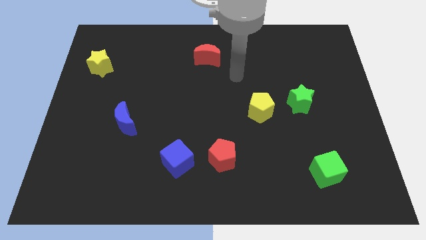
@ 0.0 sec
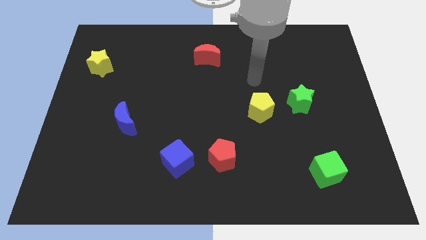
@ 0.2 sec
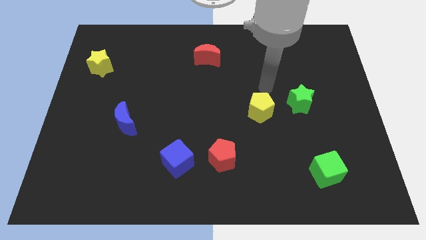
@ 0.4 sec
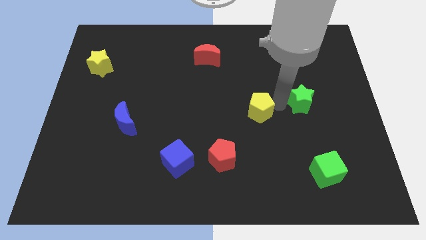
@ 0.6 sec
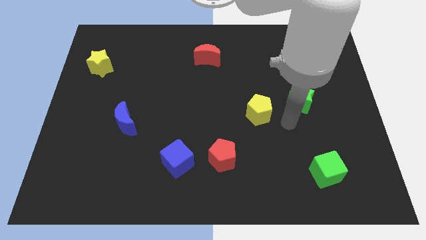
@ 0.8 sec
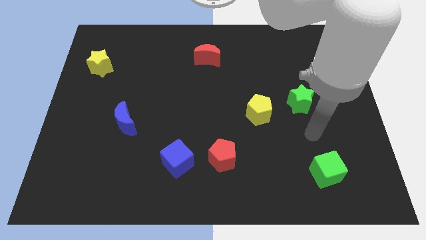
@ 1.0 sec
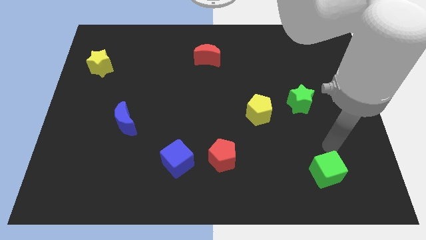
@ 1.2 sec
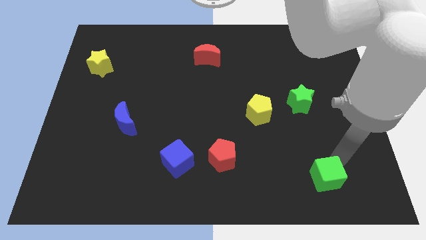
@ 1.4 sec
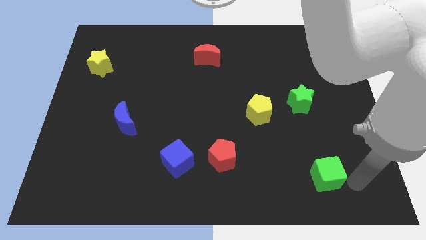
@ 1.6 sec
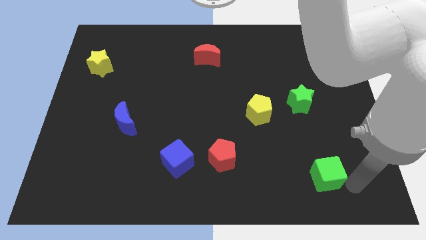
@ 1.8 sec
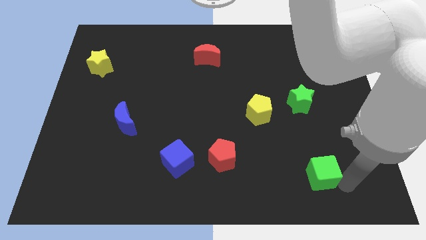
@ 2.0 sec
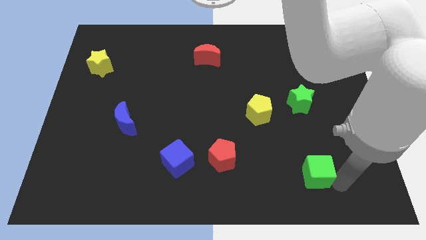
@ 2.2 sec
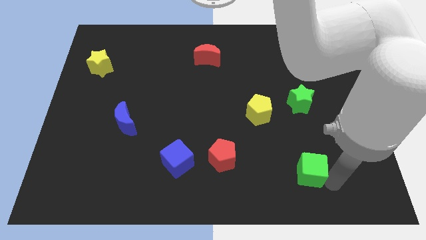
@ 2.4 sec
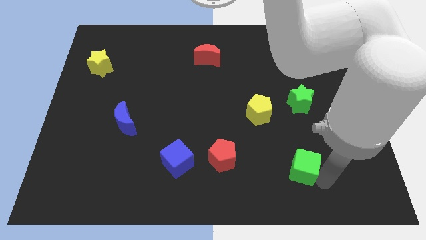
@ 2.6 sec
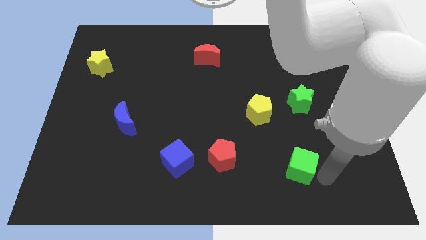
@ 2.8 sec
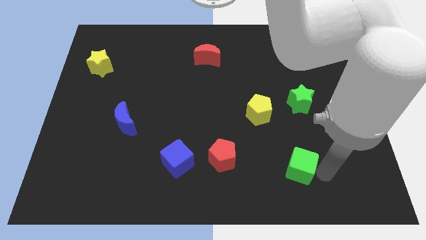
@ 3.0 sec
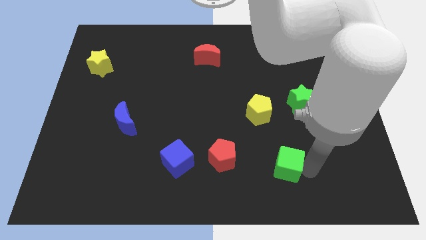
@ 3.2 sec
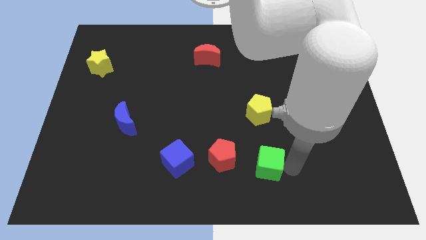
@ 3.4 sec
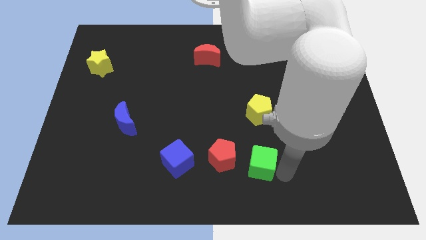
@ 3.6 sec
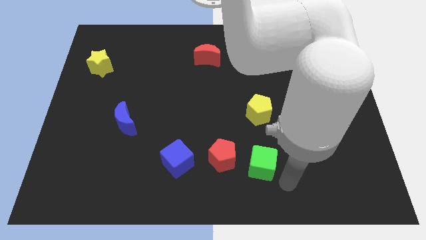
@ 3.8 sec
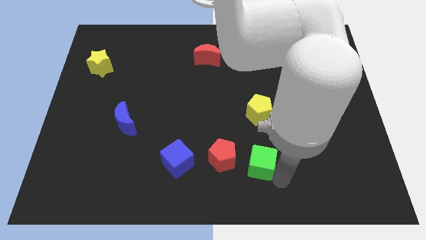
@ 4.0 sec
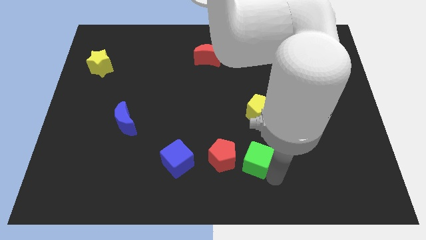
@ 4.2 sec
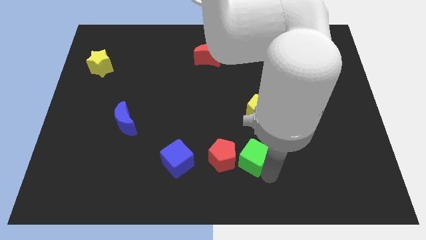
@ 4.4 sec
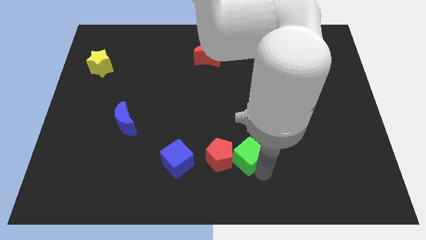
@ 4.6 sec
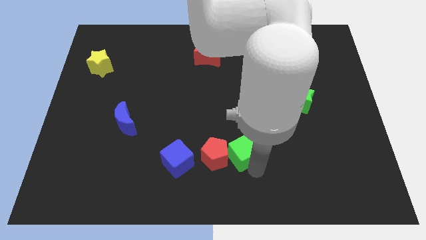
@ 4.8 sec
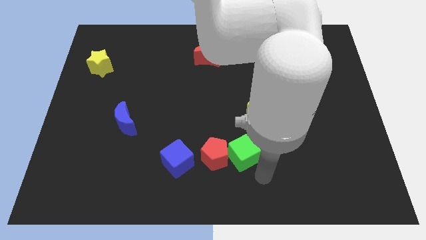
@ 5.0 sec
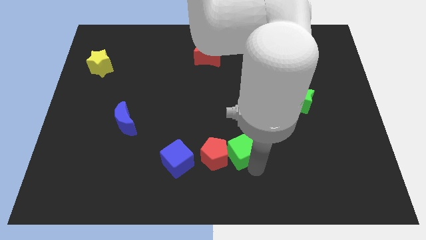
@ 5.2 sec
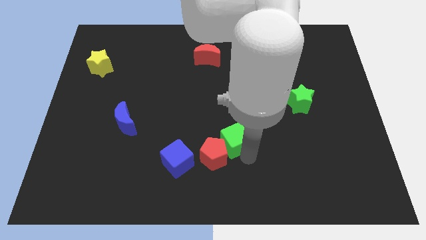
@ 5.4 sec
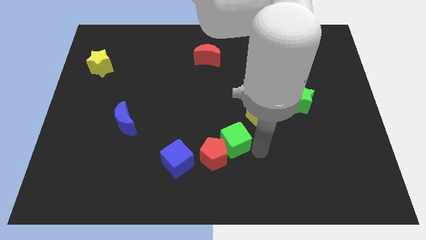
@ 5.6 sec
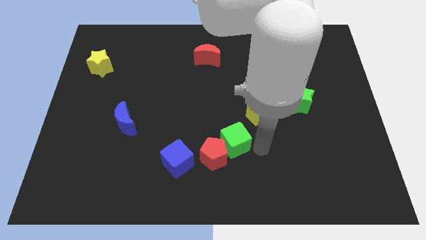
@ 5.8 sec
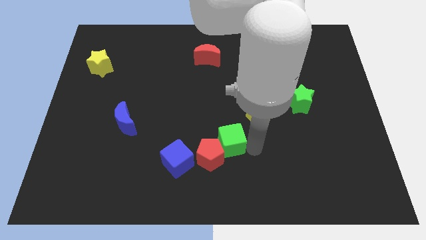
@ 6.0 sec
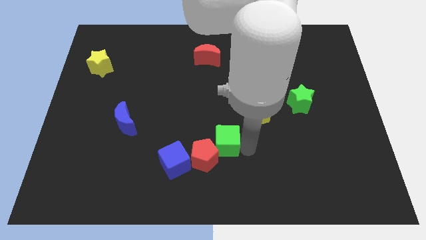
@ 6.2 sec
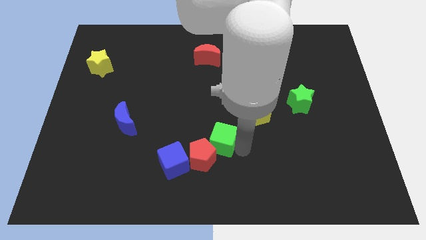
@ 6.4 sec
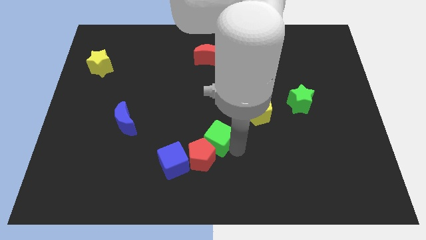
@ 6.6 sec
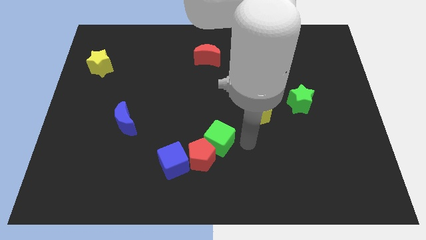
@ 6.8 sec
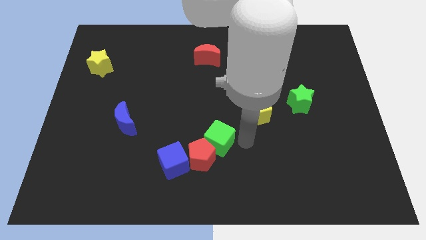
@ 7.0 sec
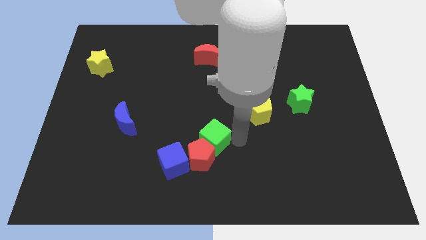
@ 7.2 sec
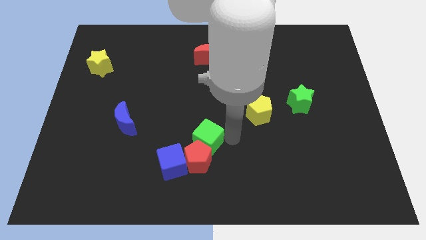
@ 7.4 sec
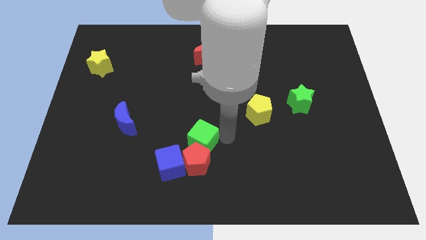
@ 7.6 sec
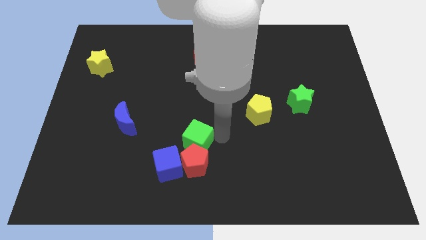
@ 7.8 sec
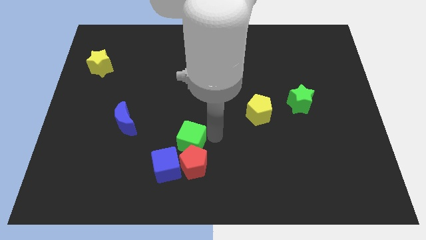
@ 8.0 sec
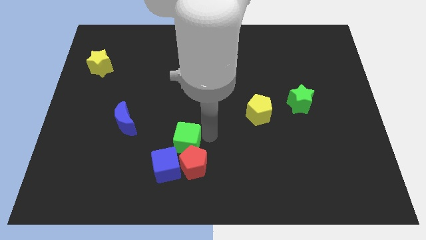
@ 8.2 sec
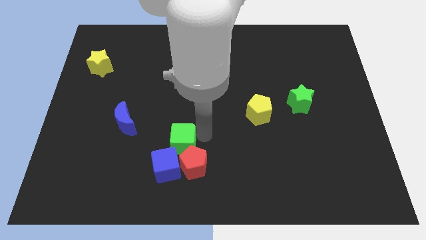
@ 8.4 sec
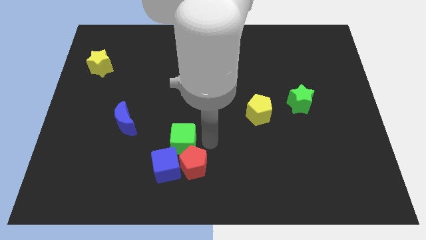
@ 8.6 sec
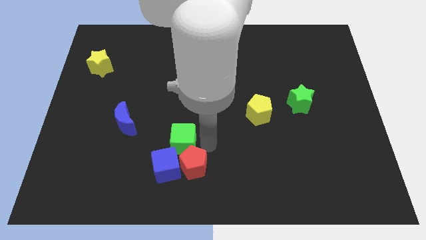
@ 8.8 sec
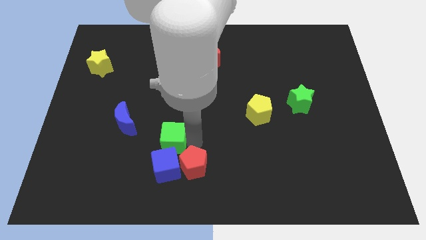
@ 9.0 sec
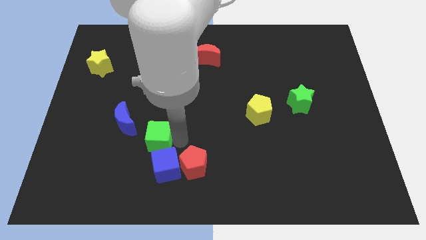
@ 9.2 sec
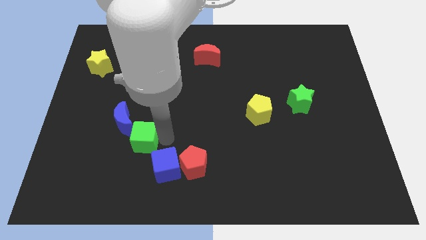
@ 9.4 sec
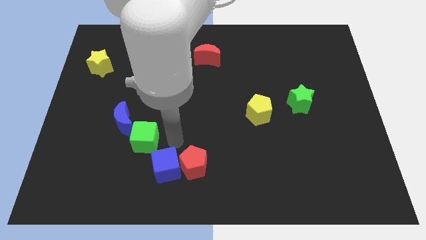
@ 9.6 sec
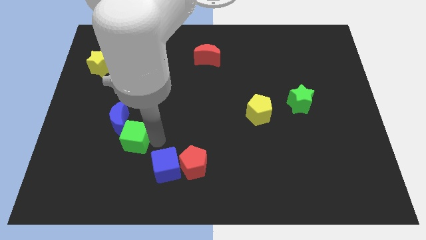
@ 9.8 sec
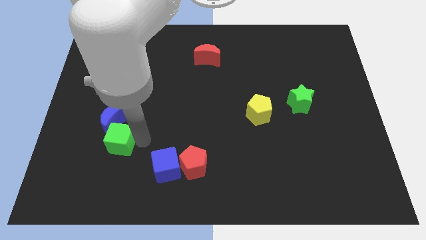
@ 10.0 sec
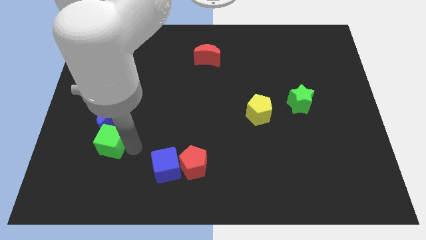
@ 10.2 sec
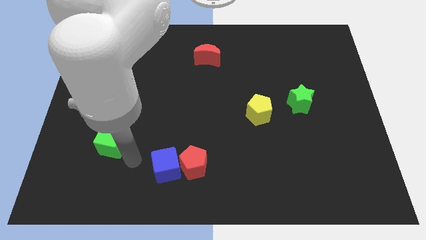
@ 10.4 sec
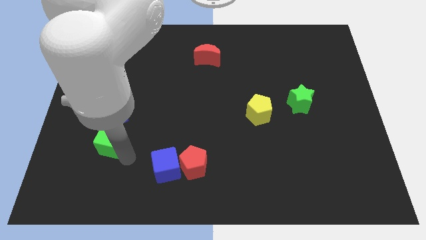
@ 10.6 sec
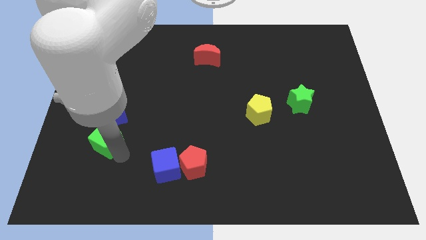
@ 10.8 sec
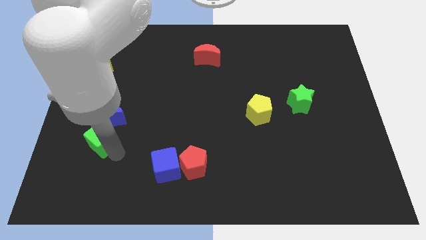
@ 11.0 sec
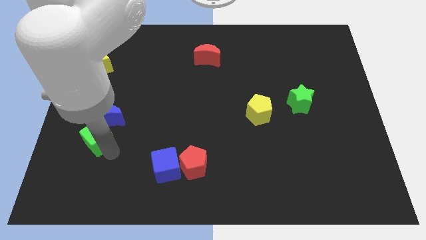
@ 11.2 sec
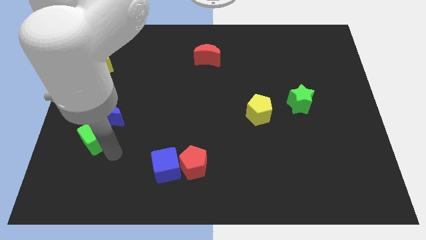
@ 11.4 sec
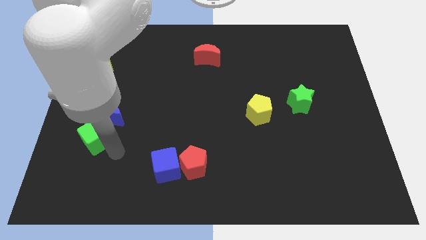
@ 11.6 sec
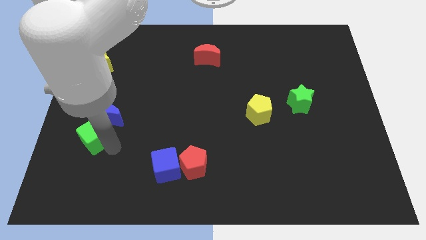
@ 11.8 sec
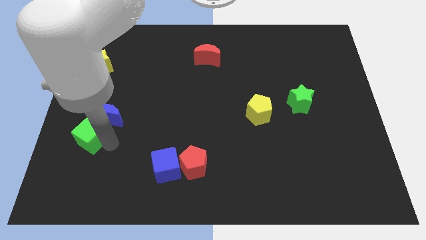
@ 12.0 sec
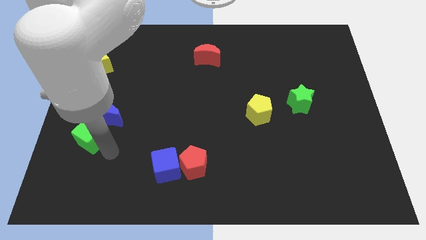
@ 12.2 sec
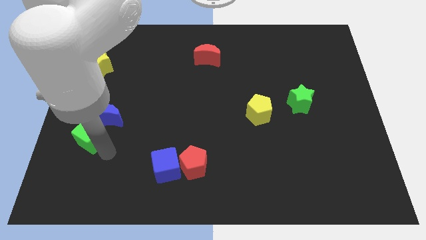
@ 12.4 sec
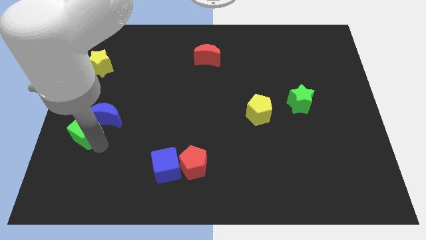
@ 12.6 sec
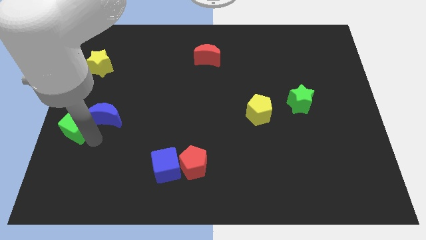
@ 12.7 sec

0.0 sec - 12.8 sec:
put the green cube to the center left

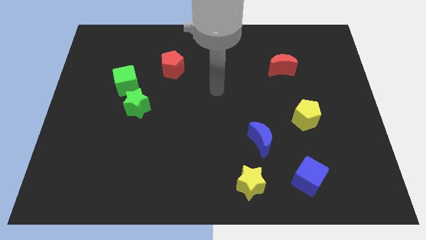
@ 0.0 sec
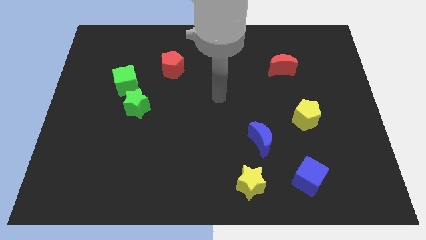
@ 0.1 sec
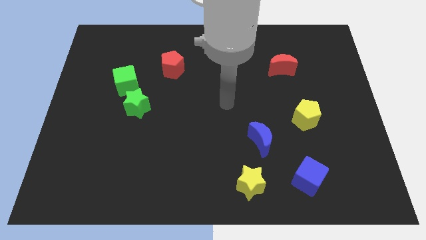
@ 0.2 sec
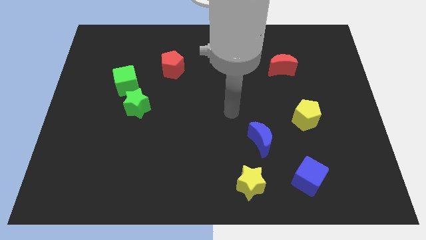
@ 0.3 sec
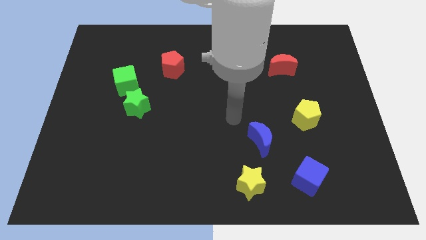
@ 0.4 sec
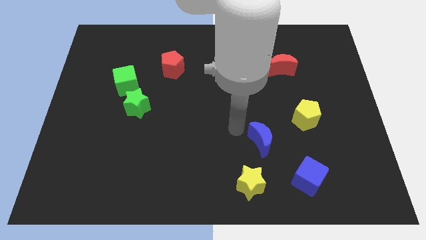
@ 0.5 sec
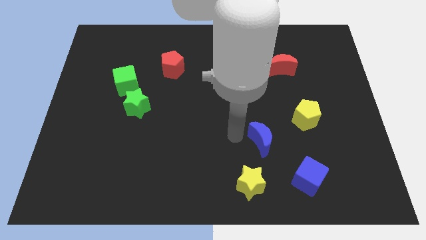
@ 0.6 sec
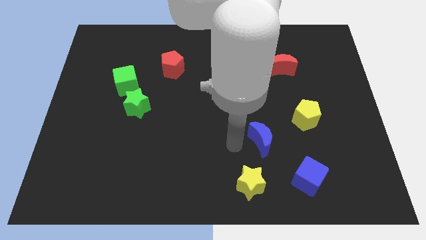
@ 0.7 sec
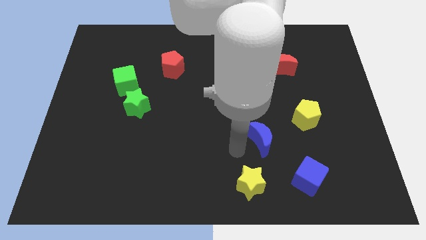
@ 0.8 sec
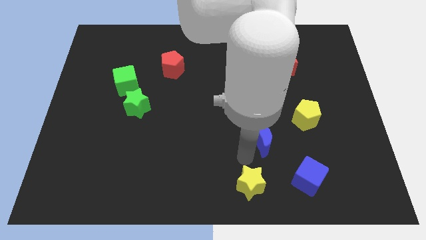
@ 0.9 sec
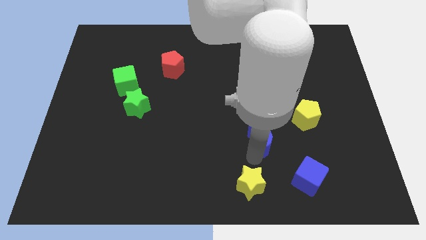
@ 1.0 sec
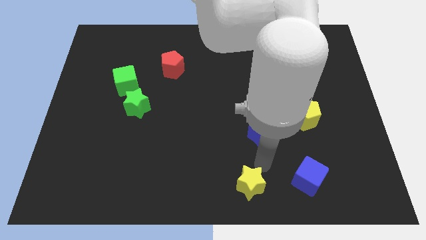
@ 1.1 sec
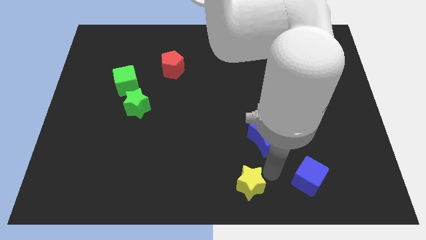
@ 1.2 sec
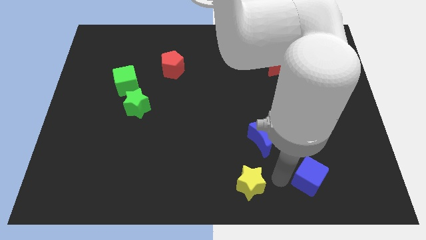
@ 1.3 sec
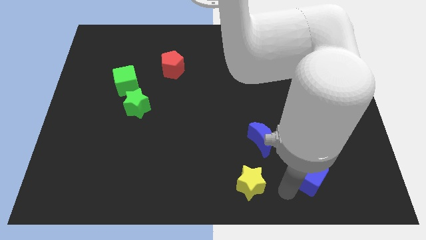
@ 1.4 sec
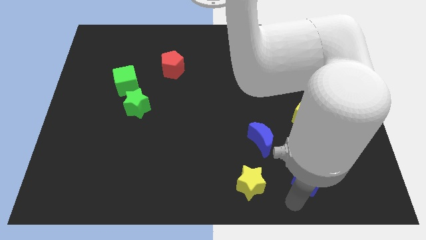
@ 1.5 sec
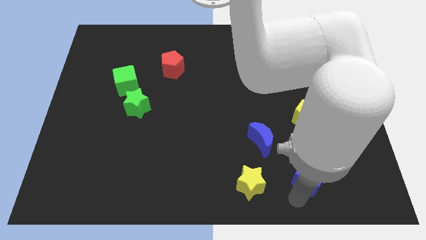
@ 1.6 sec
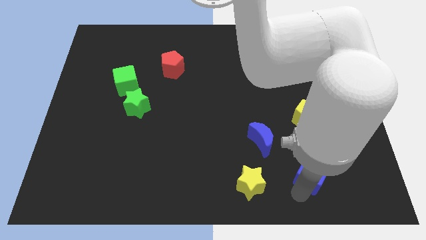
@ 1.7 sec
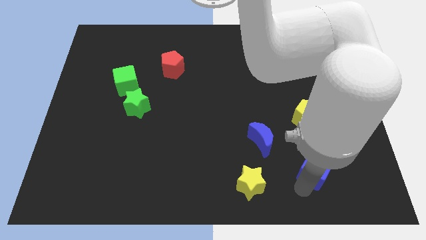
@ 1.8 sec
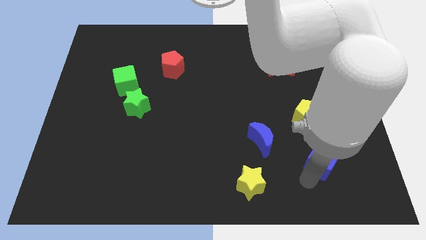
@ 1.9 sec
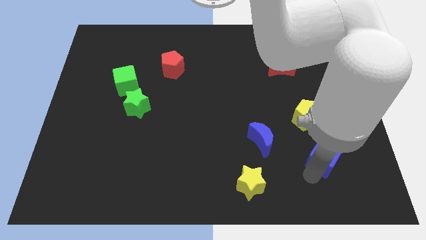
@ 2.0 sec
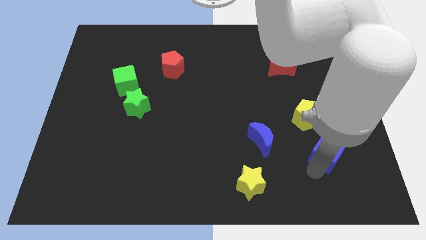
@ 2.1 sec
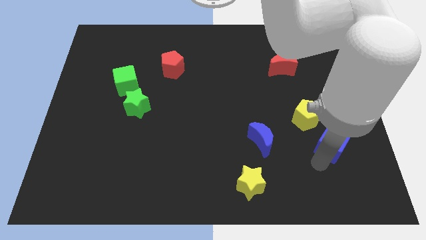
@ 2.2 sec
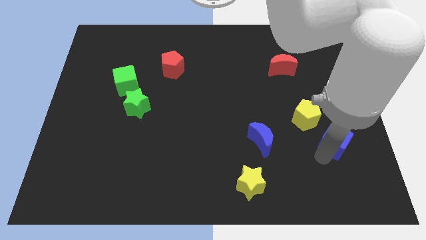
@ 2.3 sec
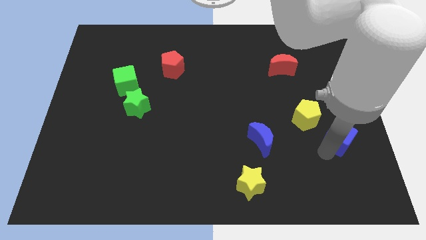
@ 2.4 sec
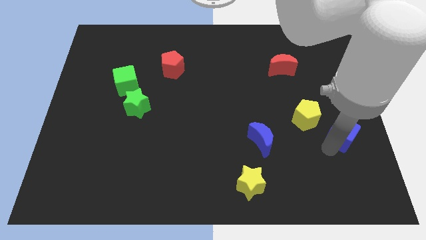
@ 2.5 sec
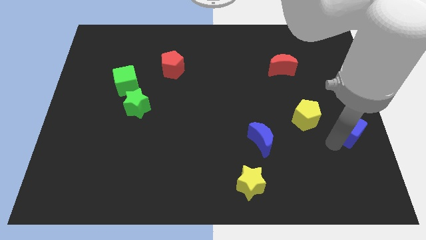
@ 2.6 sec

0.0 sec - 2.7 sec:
move the blue cube to the center right
